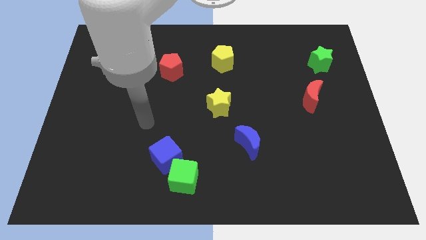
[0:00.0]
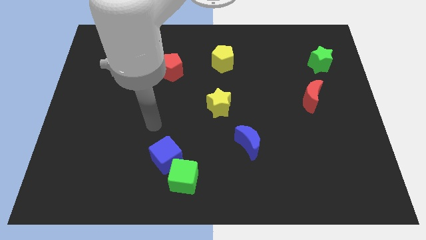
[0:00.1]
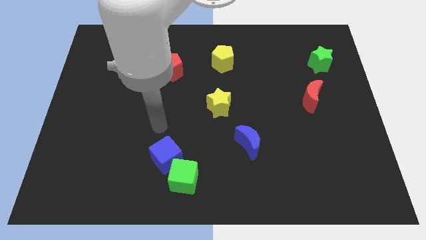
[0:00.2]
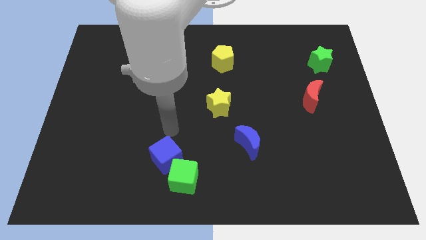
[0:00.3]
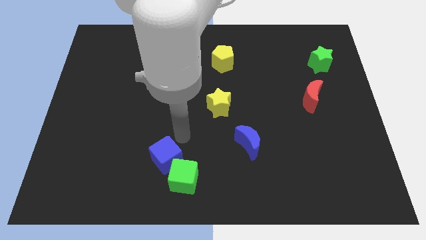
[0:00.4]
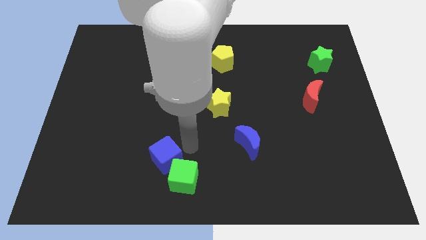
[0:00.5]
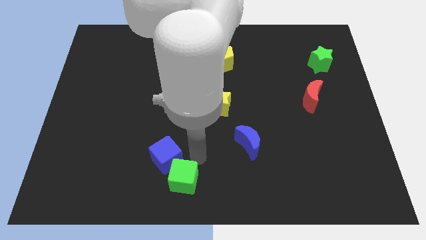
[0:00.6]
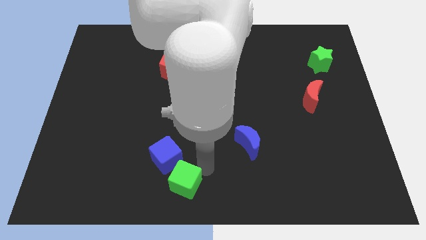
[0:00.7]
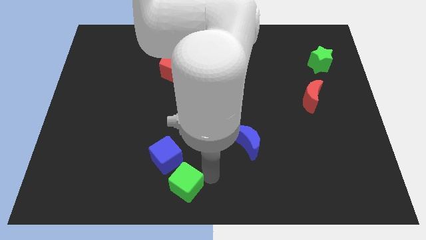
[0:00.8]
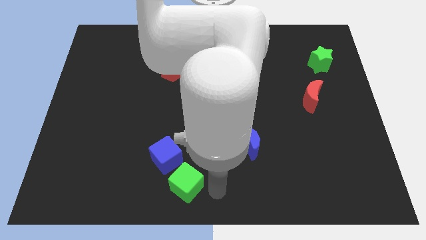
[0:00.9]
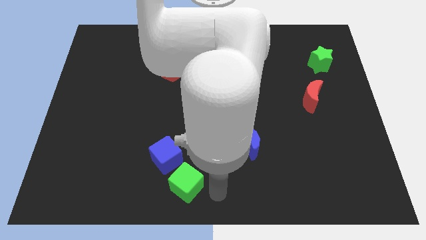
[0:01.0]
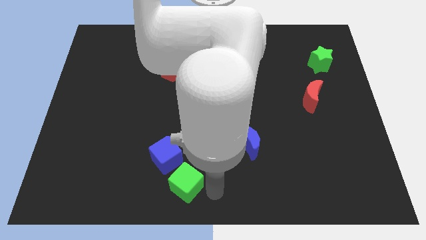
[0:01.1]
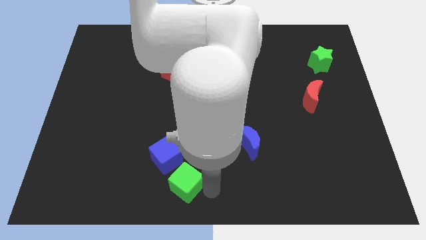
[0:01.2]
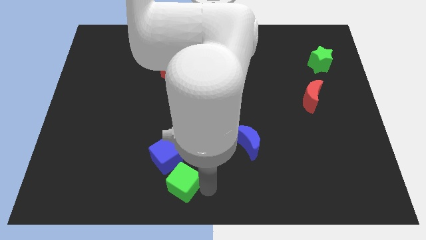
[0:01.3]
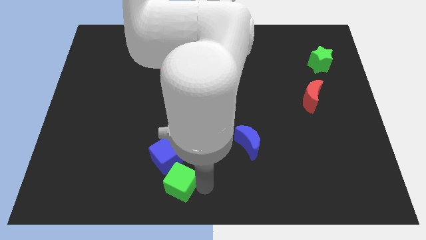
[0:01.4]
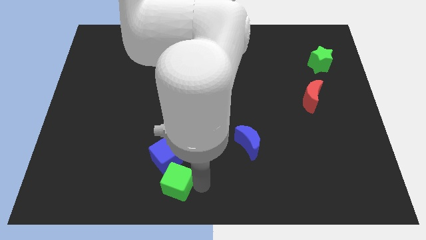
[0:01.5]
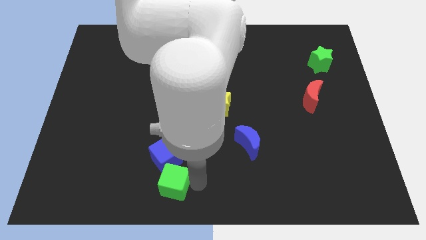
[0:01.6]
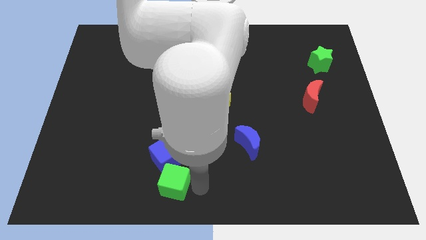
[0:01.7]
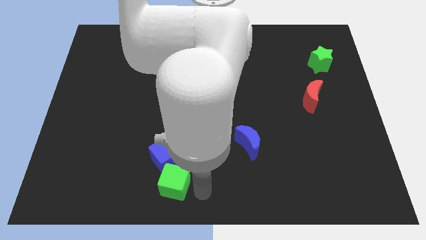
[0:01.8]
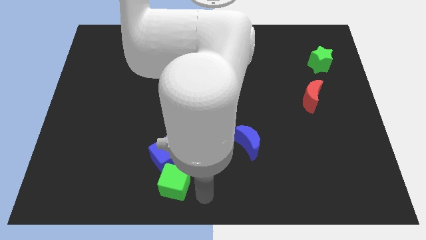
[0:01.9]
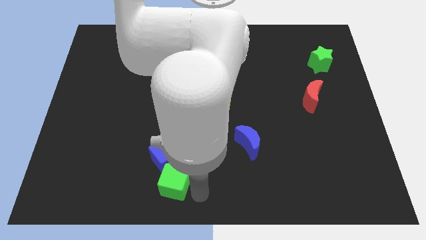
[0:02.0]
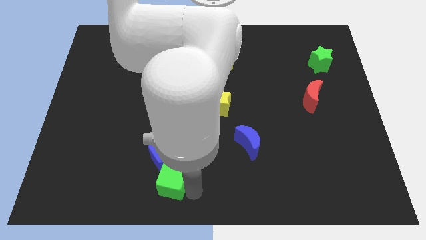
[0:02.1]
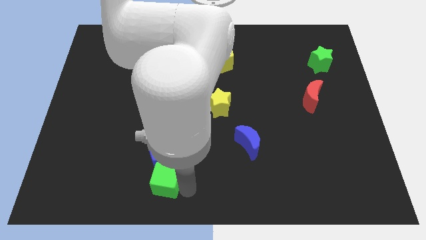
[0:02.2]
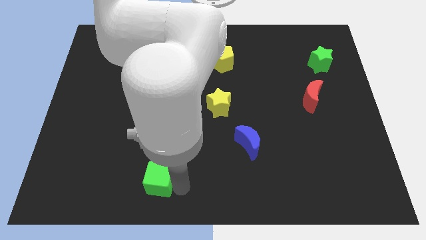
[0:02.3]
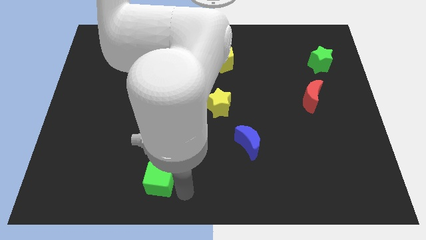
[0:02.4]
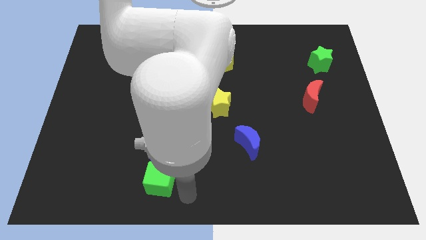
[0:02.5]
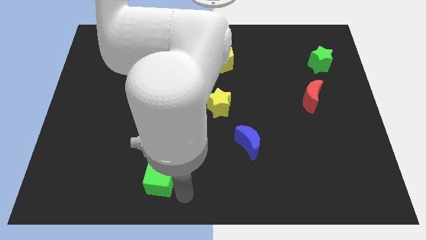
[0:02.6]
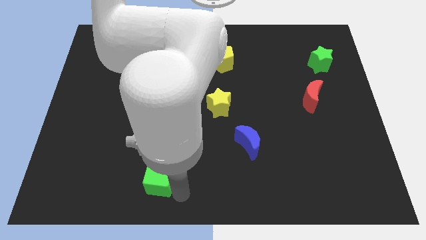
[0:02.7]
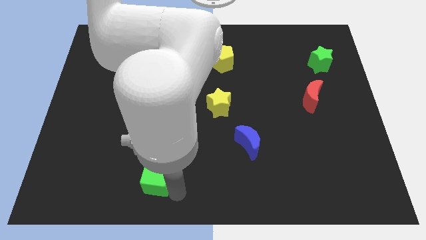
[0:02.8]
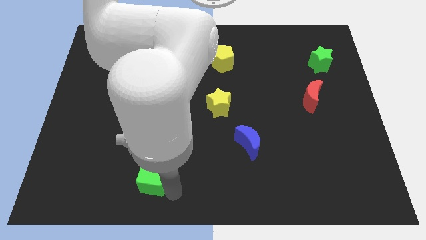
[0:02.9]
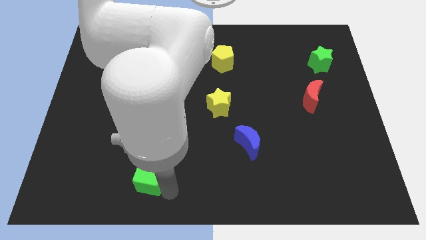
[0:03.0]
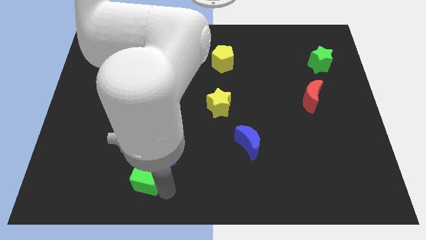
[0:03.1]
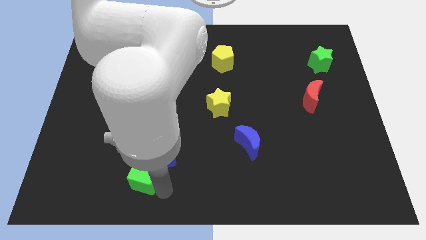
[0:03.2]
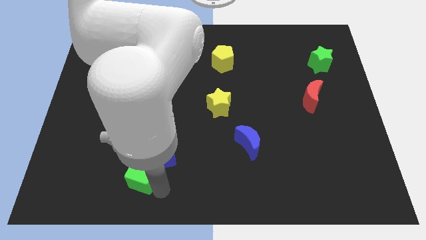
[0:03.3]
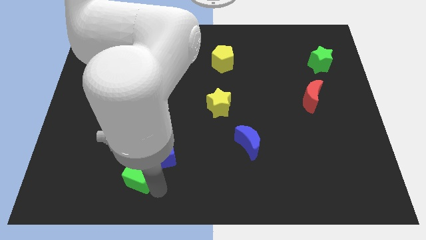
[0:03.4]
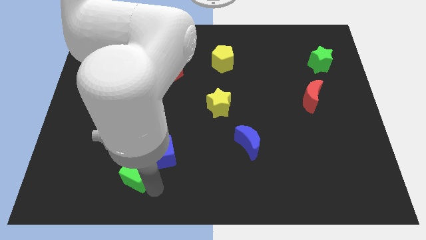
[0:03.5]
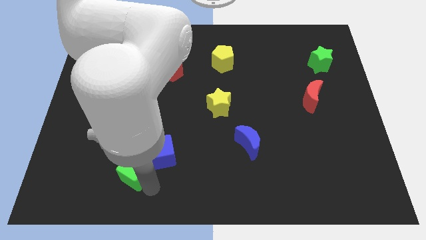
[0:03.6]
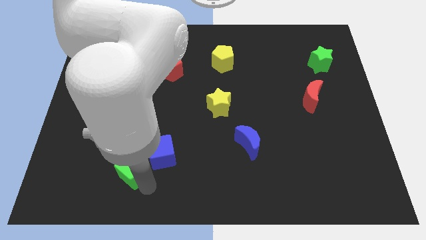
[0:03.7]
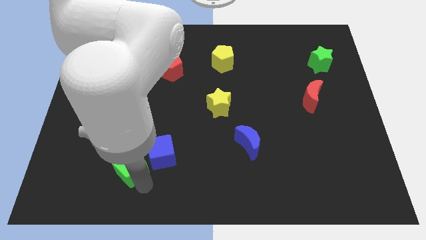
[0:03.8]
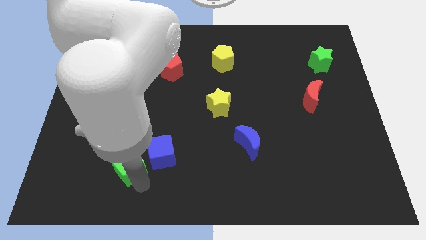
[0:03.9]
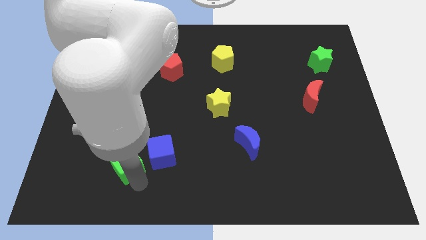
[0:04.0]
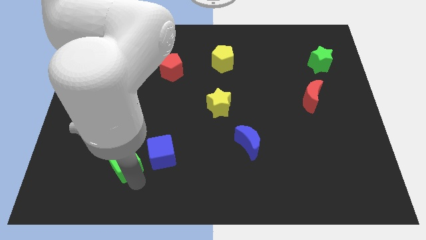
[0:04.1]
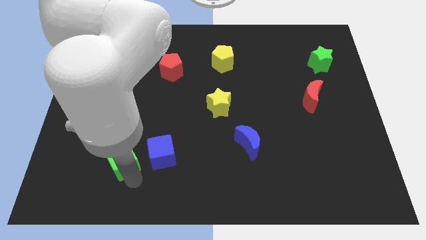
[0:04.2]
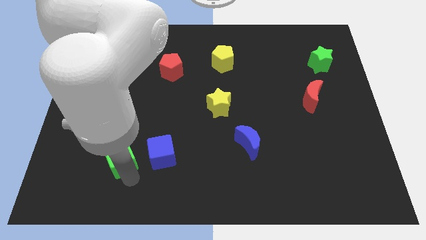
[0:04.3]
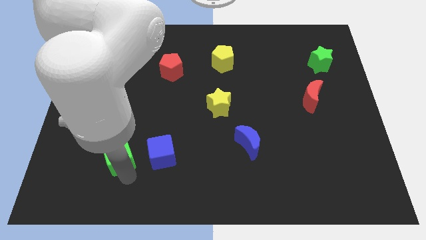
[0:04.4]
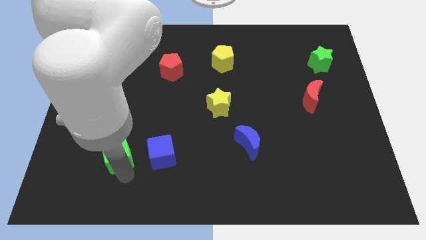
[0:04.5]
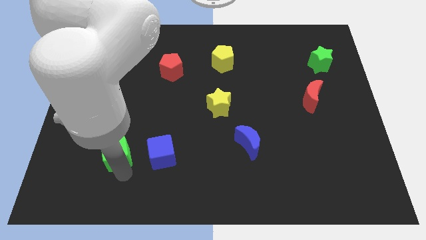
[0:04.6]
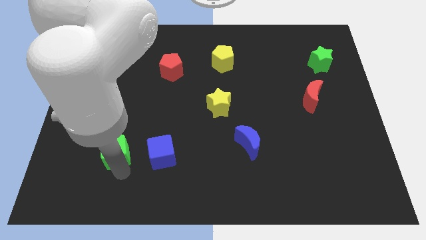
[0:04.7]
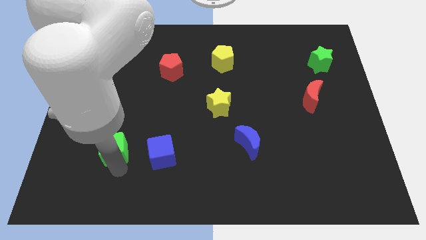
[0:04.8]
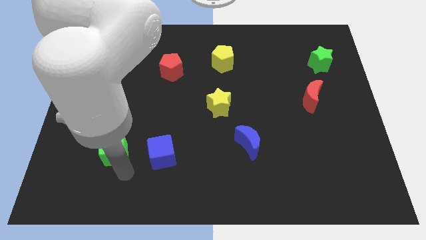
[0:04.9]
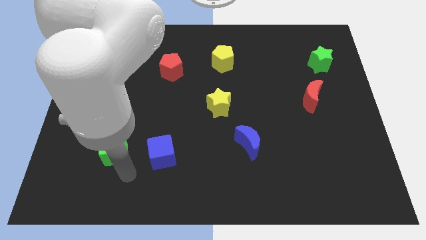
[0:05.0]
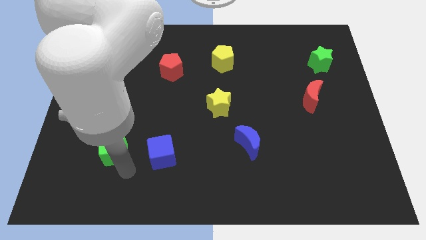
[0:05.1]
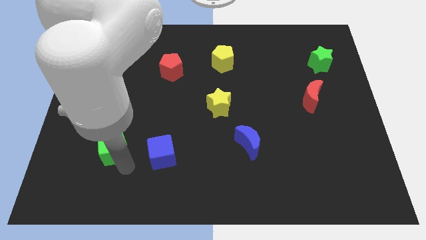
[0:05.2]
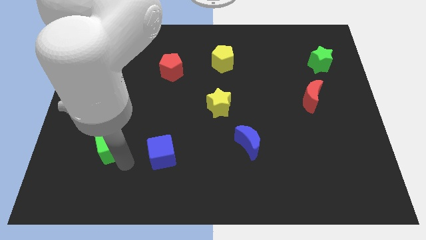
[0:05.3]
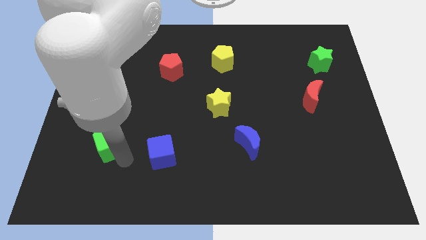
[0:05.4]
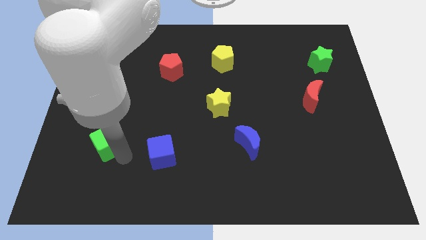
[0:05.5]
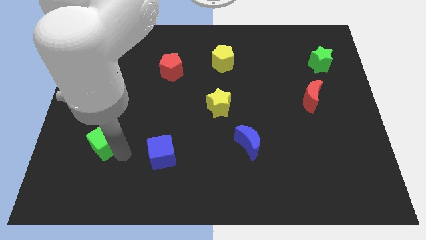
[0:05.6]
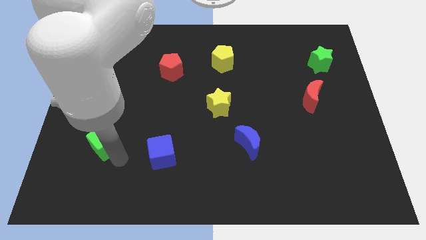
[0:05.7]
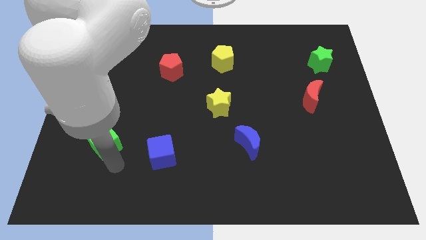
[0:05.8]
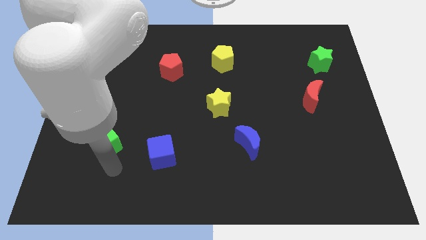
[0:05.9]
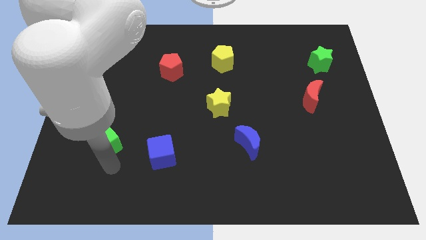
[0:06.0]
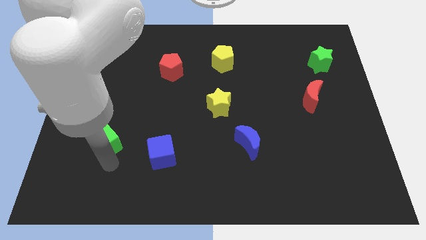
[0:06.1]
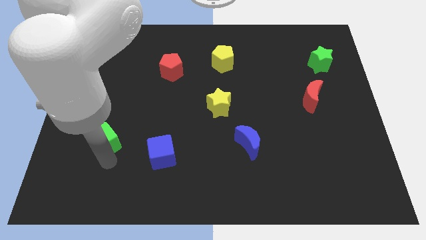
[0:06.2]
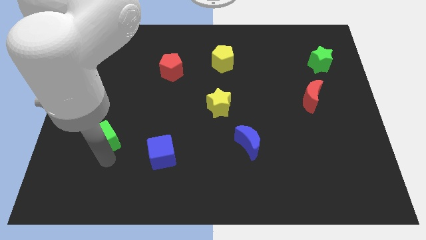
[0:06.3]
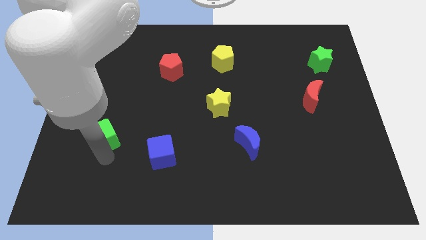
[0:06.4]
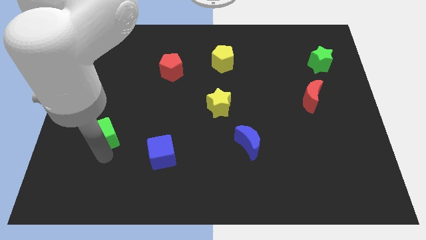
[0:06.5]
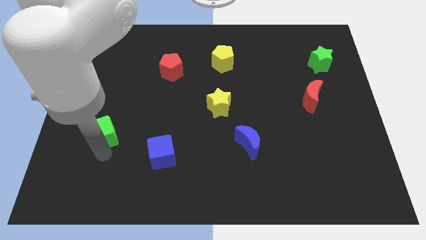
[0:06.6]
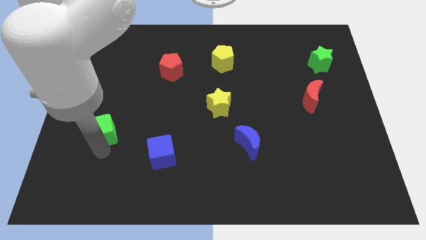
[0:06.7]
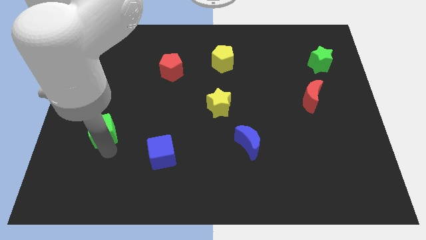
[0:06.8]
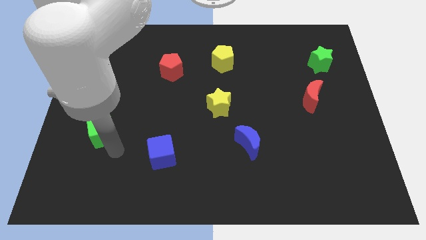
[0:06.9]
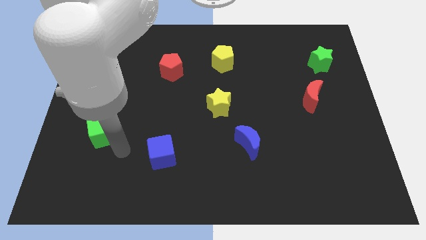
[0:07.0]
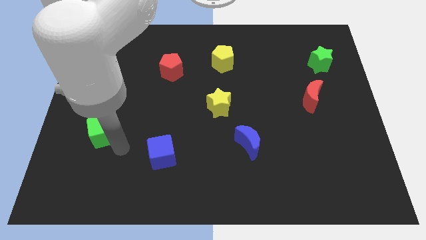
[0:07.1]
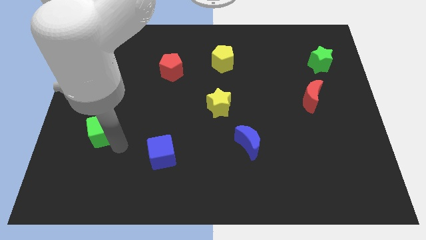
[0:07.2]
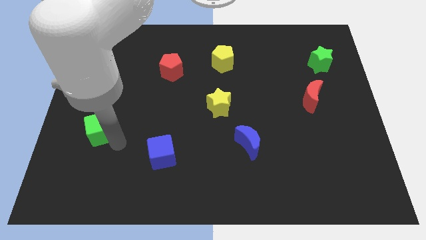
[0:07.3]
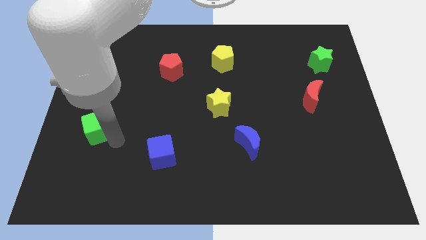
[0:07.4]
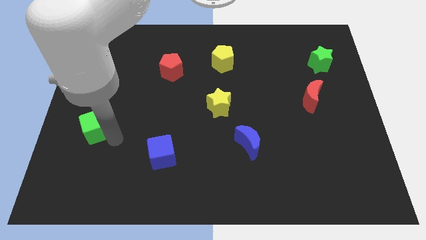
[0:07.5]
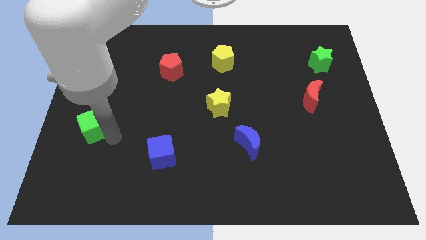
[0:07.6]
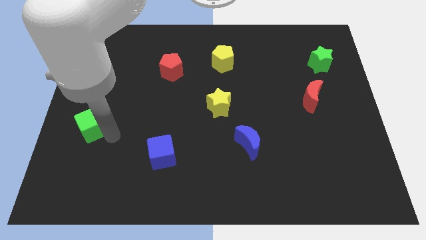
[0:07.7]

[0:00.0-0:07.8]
put the green cube to the left side of the board

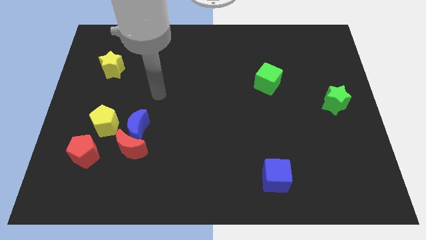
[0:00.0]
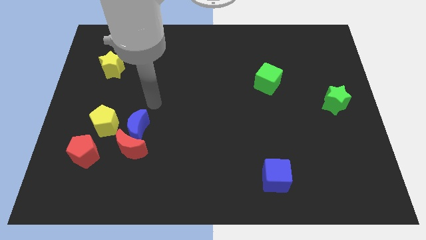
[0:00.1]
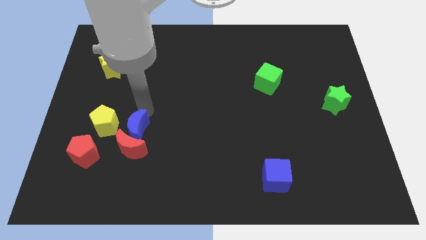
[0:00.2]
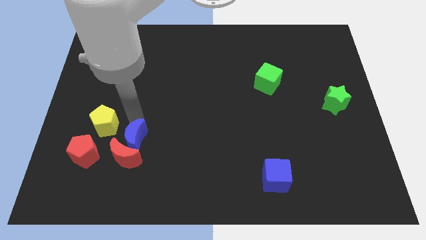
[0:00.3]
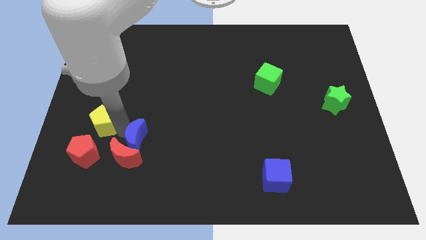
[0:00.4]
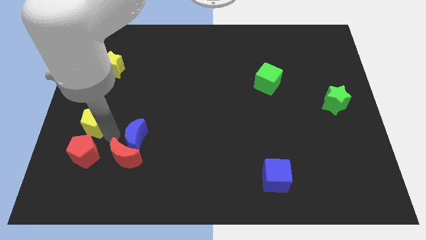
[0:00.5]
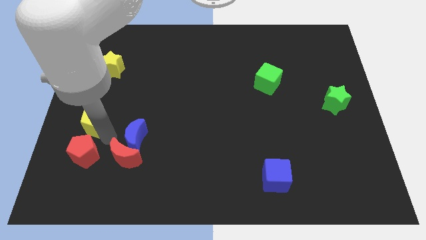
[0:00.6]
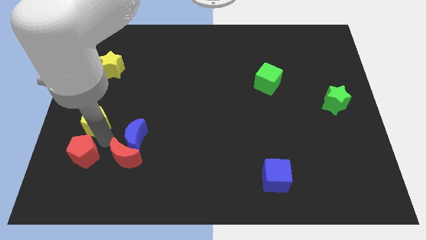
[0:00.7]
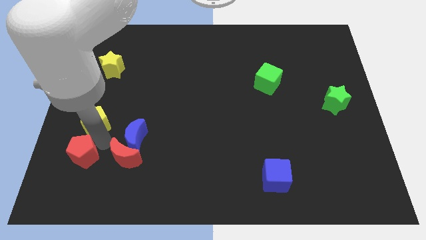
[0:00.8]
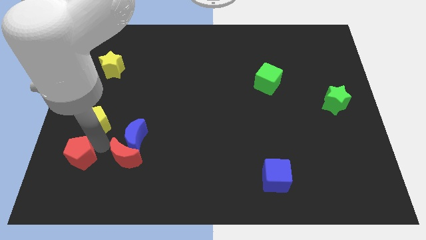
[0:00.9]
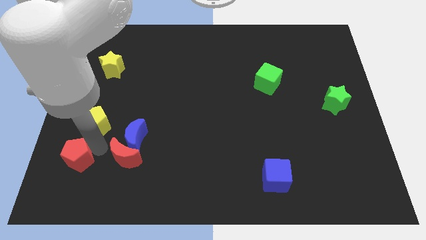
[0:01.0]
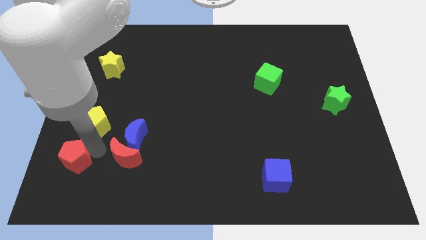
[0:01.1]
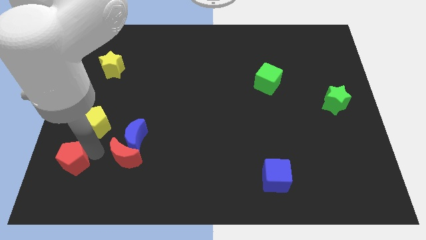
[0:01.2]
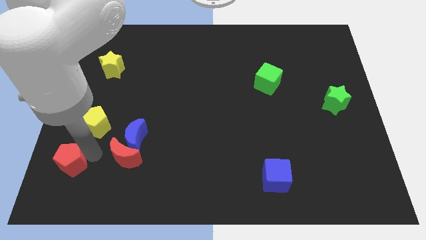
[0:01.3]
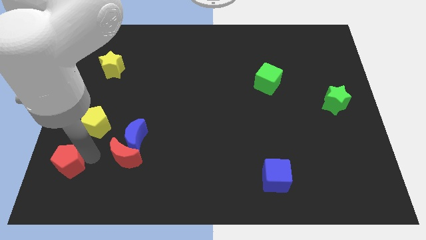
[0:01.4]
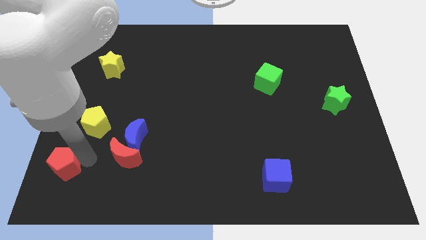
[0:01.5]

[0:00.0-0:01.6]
move the red pentagon to the bottom left of the board
